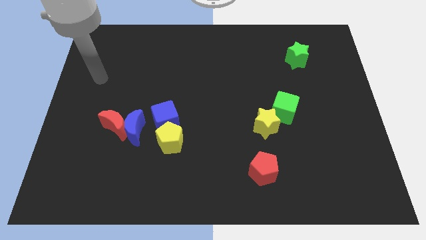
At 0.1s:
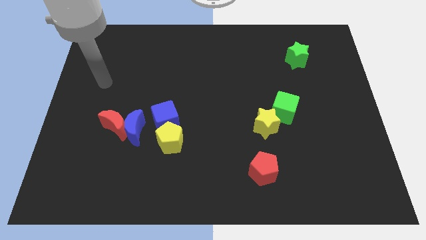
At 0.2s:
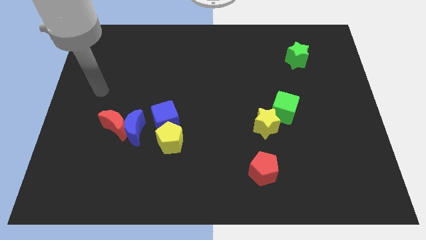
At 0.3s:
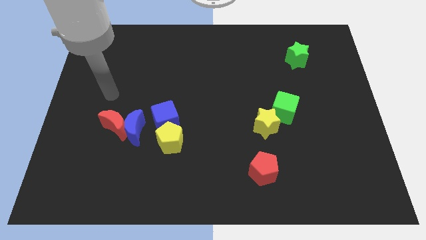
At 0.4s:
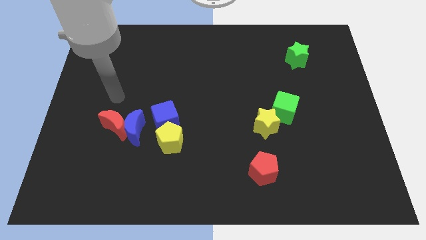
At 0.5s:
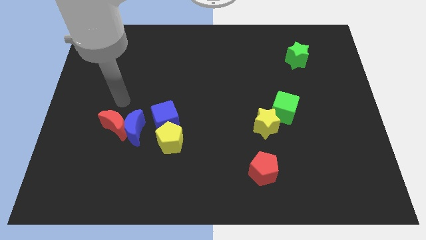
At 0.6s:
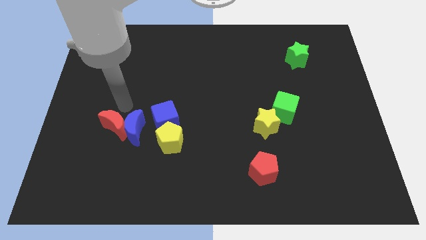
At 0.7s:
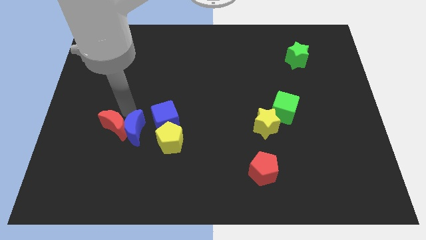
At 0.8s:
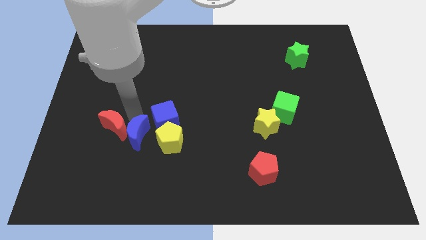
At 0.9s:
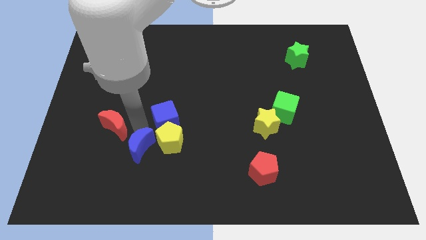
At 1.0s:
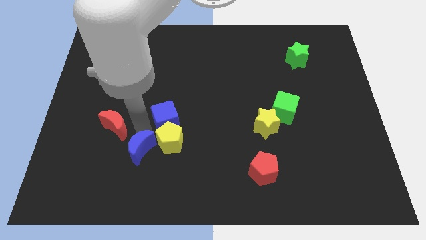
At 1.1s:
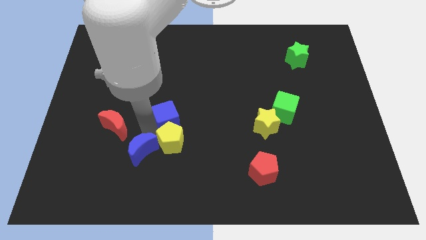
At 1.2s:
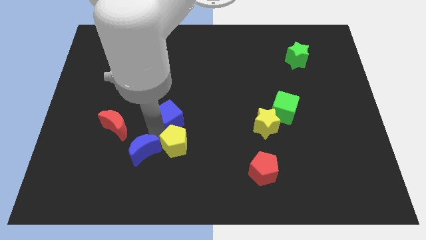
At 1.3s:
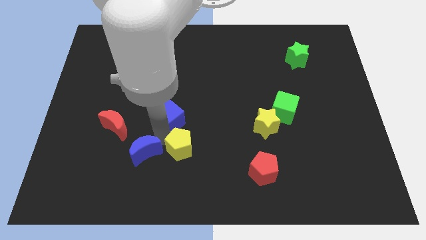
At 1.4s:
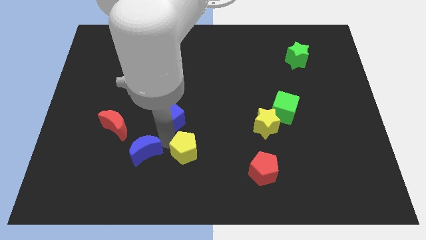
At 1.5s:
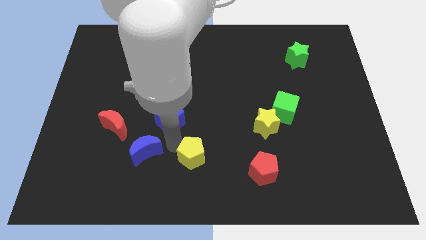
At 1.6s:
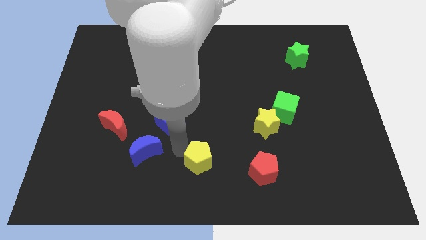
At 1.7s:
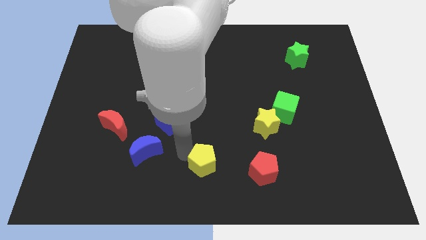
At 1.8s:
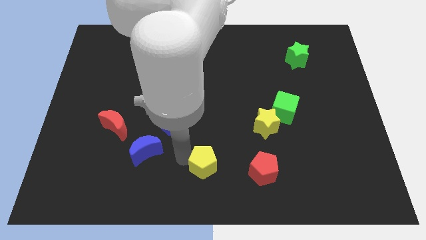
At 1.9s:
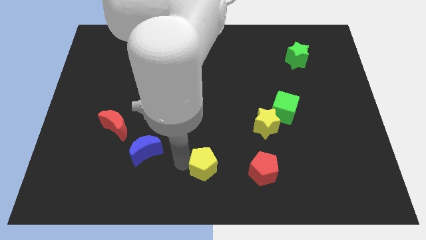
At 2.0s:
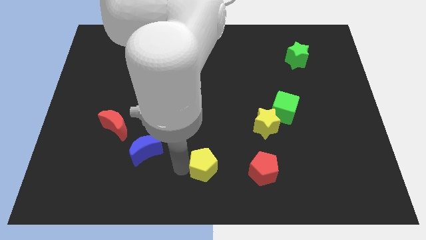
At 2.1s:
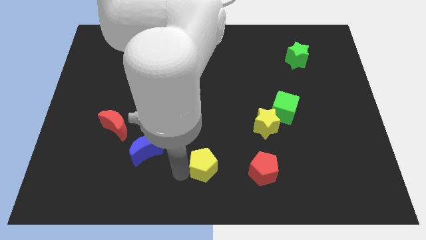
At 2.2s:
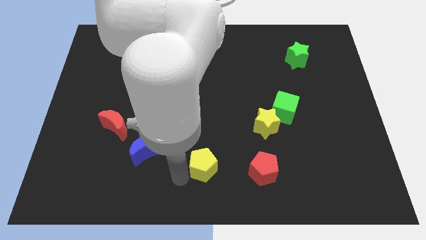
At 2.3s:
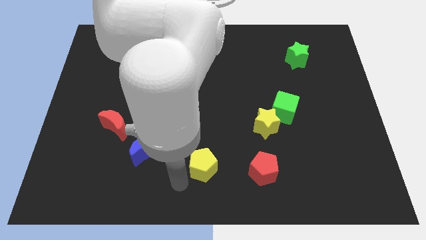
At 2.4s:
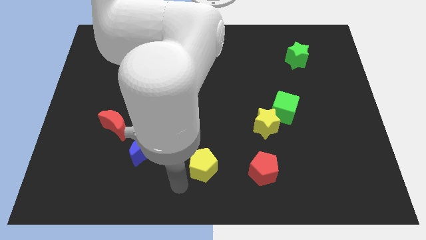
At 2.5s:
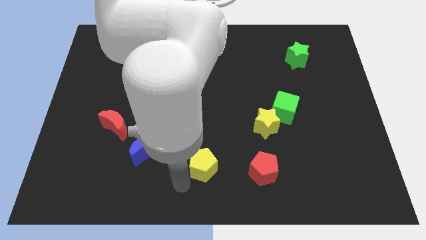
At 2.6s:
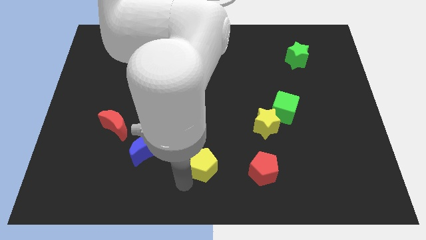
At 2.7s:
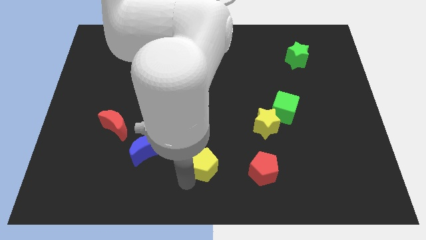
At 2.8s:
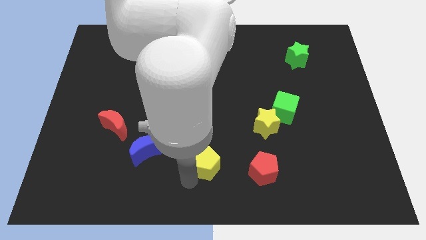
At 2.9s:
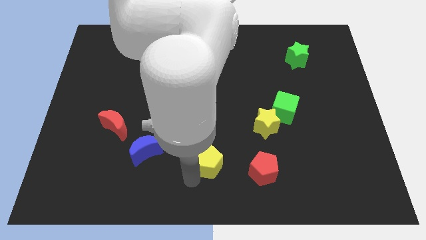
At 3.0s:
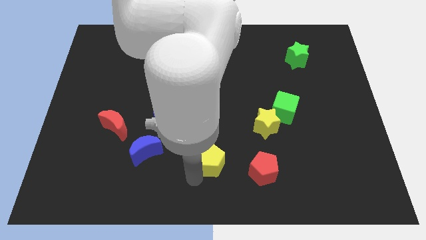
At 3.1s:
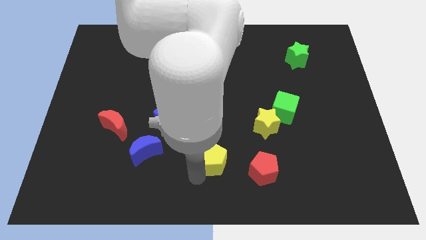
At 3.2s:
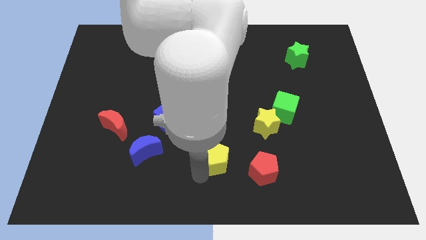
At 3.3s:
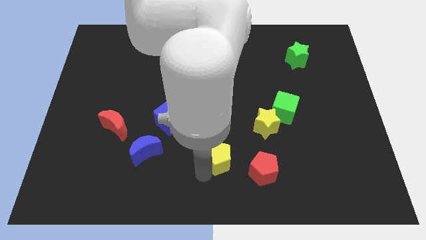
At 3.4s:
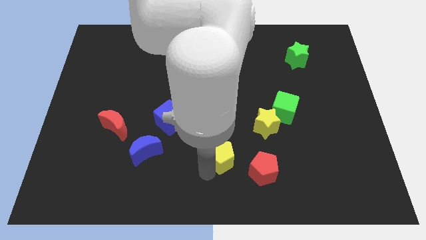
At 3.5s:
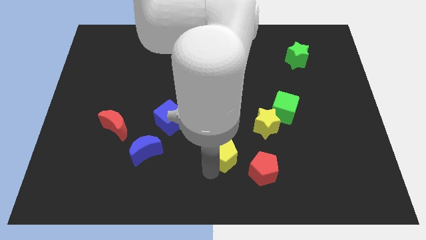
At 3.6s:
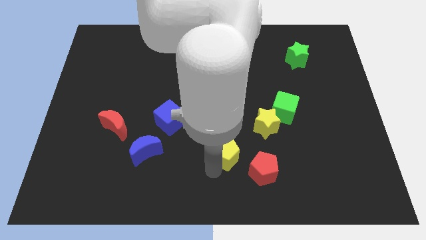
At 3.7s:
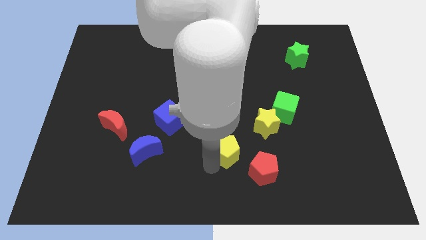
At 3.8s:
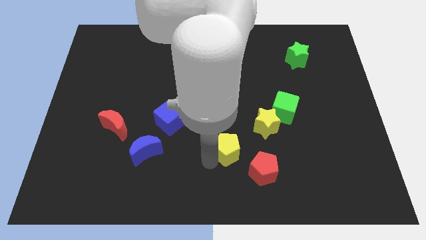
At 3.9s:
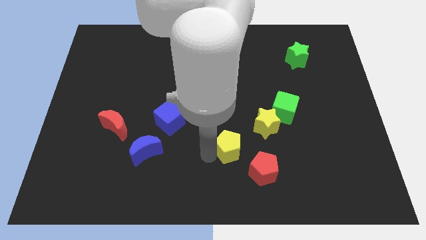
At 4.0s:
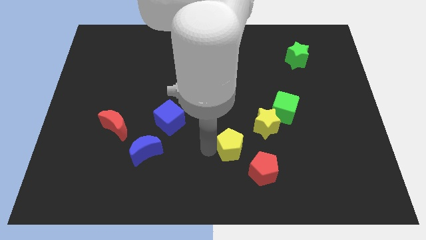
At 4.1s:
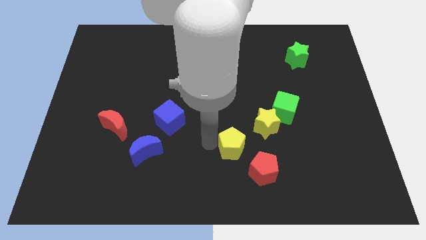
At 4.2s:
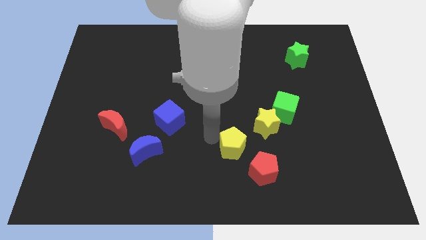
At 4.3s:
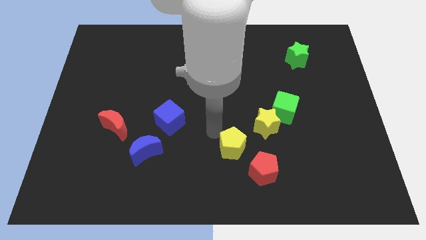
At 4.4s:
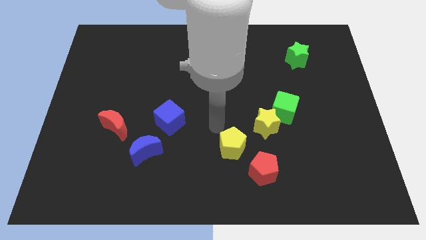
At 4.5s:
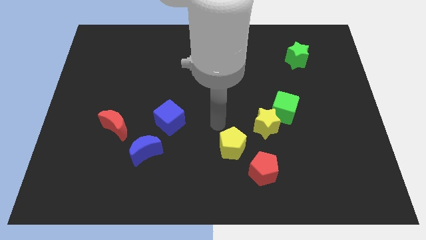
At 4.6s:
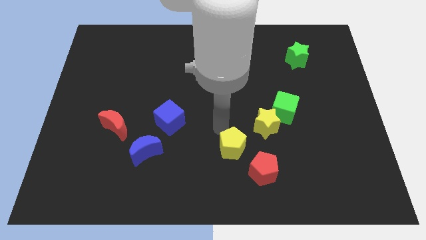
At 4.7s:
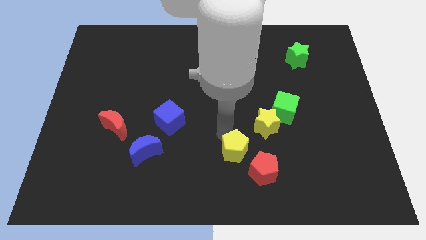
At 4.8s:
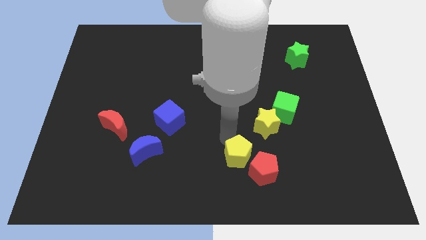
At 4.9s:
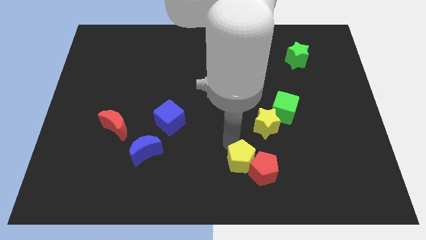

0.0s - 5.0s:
slide the yellow pentagon to the red pentagon

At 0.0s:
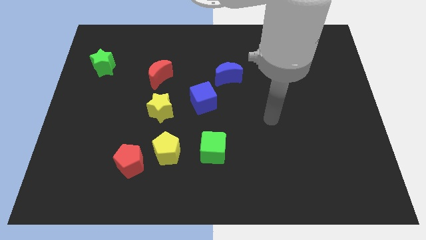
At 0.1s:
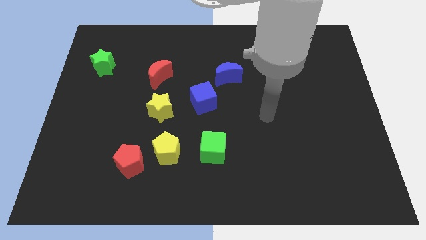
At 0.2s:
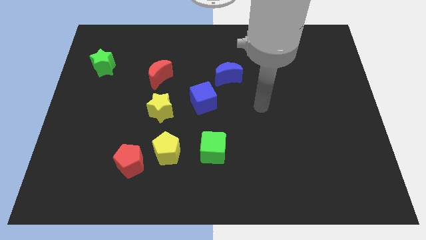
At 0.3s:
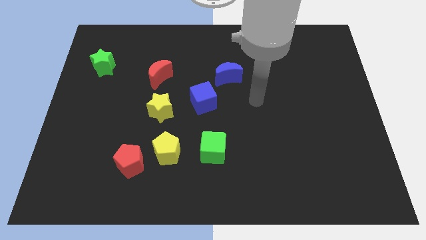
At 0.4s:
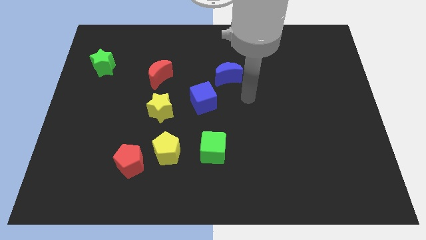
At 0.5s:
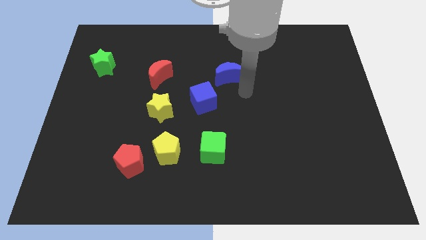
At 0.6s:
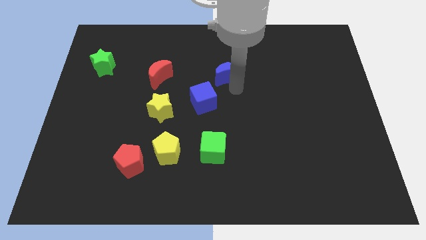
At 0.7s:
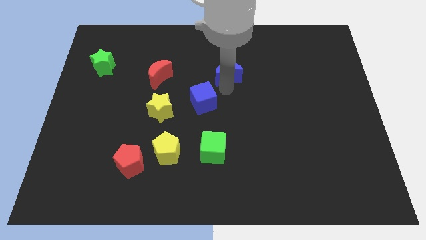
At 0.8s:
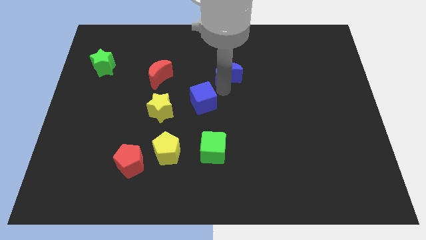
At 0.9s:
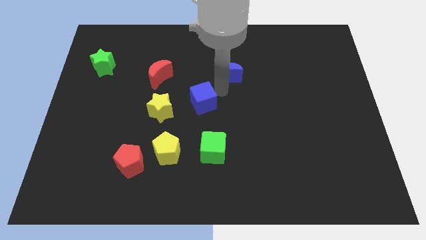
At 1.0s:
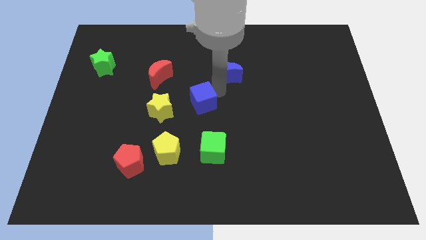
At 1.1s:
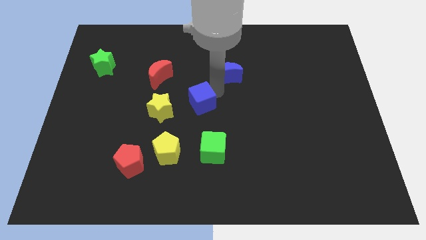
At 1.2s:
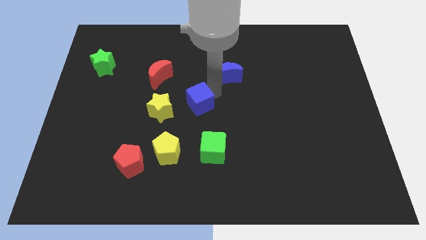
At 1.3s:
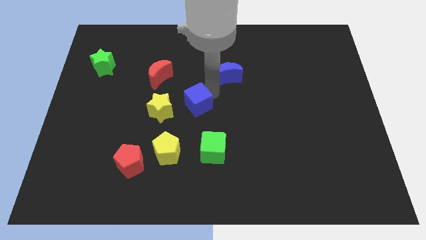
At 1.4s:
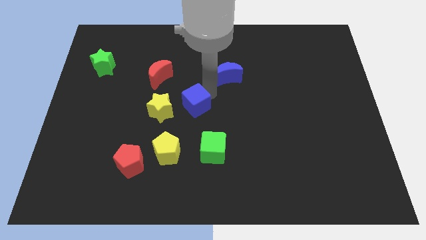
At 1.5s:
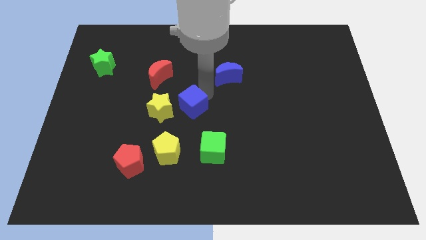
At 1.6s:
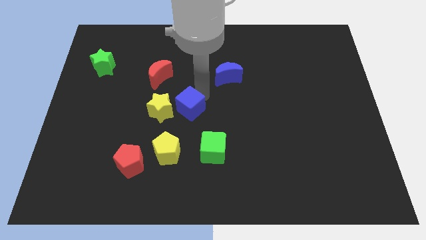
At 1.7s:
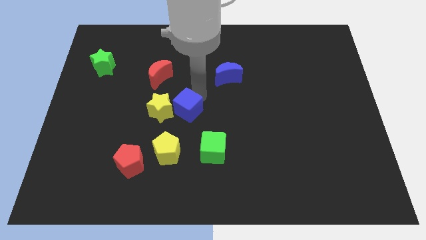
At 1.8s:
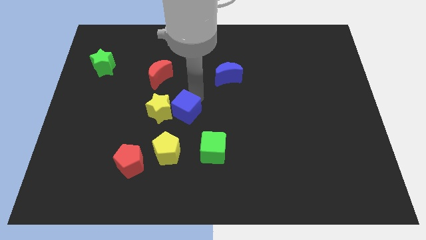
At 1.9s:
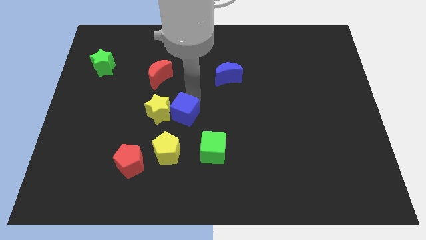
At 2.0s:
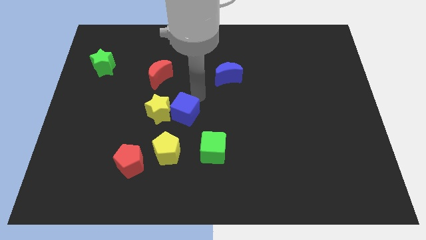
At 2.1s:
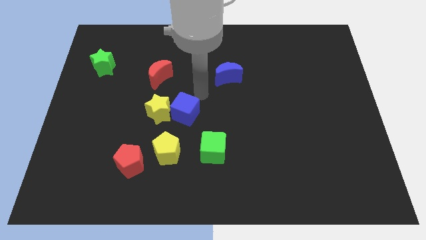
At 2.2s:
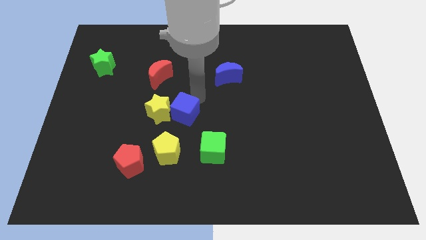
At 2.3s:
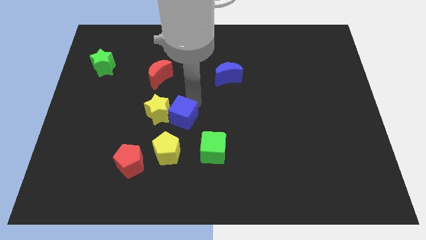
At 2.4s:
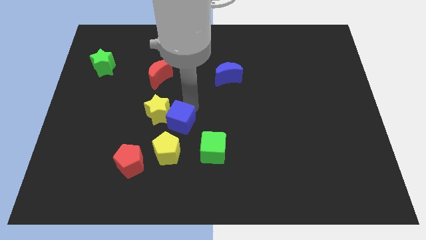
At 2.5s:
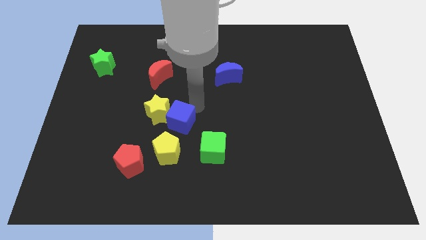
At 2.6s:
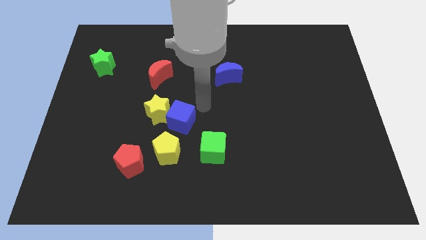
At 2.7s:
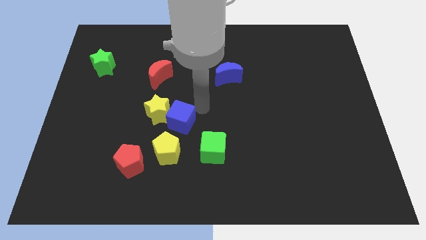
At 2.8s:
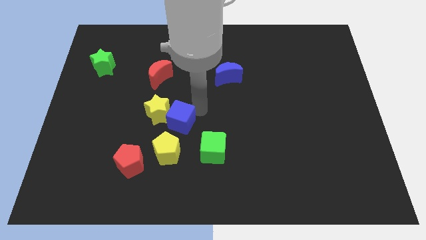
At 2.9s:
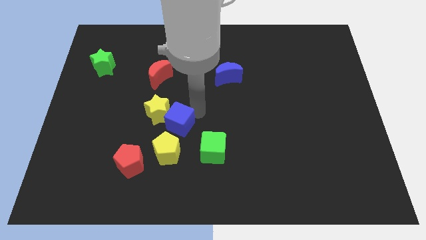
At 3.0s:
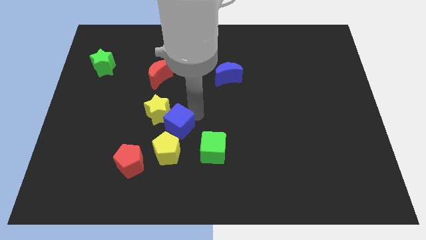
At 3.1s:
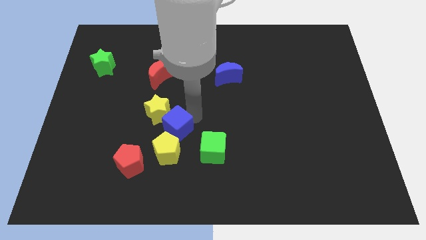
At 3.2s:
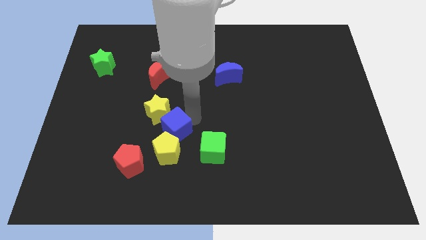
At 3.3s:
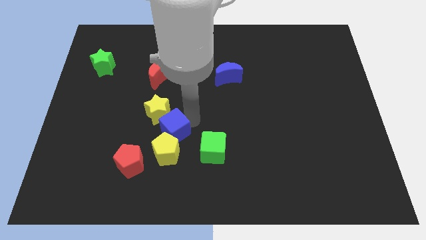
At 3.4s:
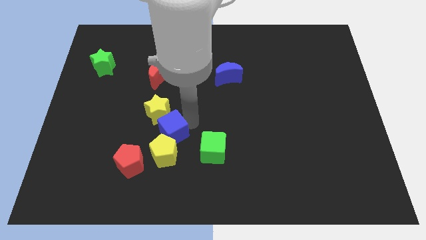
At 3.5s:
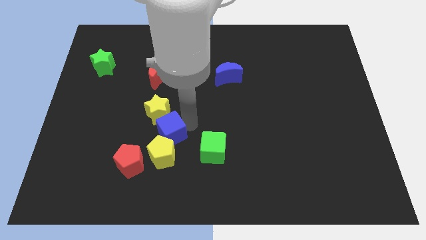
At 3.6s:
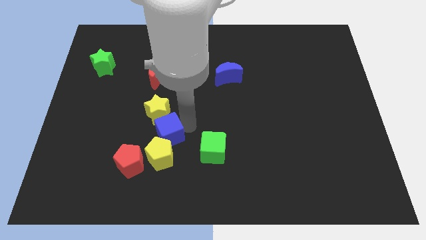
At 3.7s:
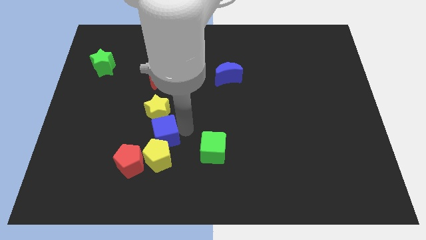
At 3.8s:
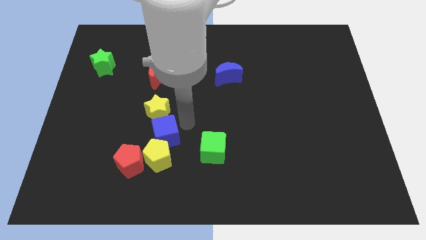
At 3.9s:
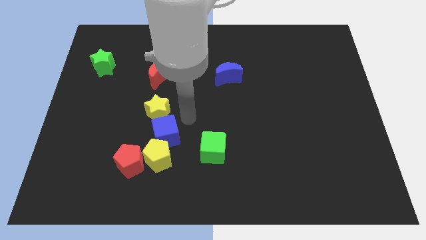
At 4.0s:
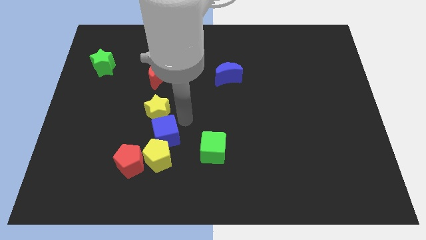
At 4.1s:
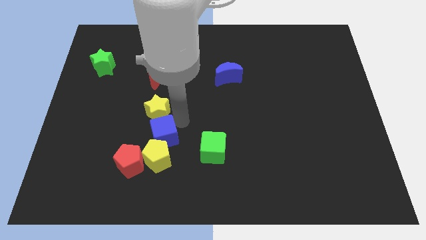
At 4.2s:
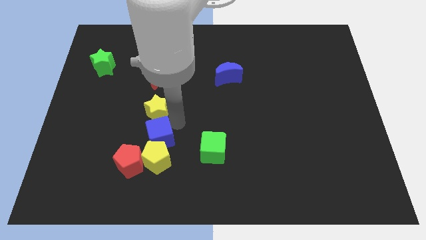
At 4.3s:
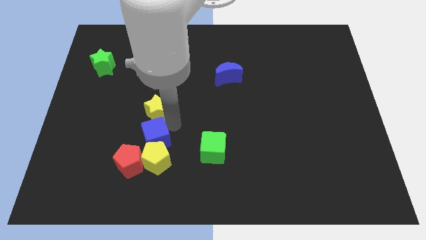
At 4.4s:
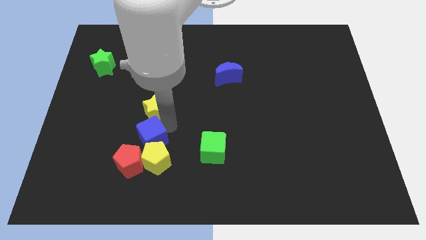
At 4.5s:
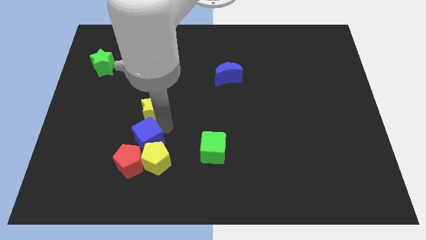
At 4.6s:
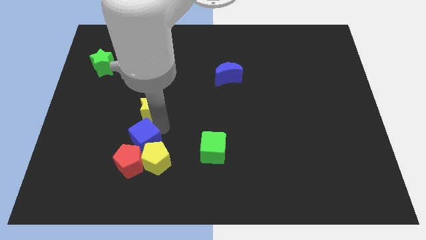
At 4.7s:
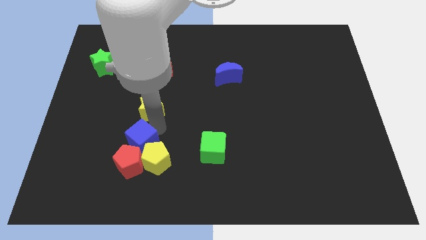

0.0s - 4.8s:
push the blue cube to the red pentagon
